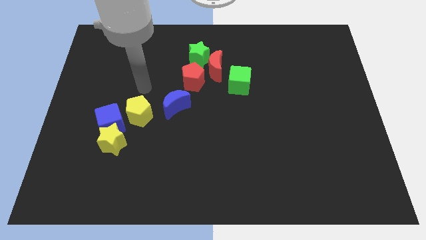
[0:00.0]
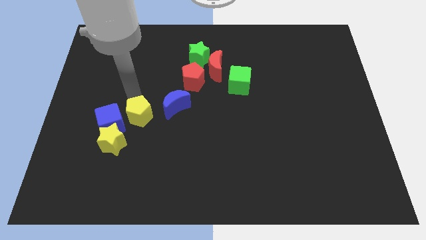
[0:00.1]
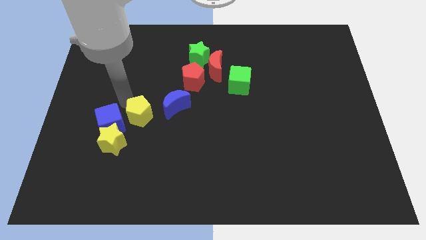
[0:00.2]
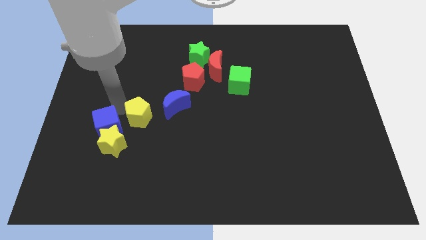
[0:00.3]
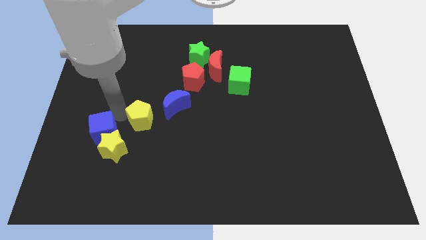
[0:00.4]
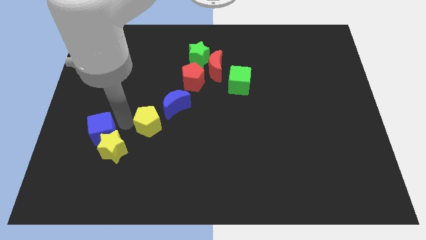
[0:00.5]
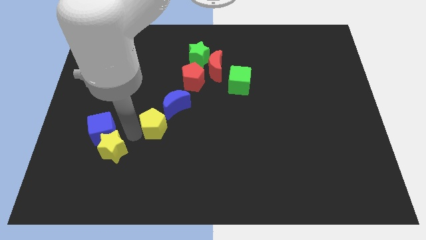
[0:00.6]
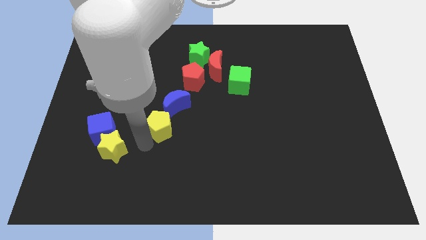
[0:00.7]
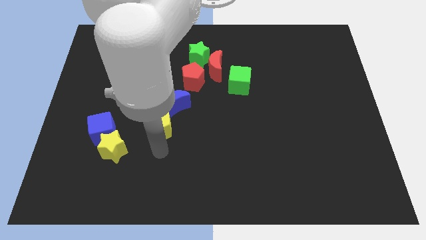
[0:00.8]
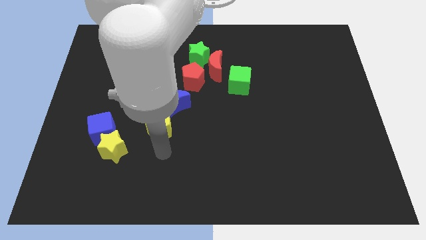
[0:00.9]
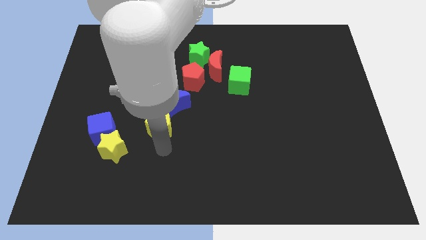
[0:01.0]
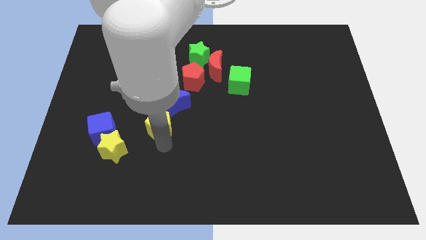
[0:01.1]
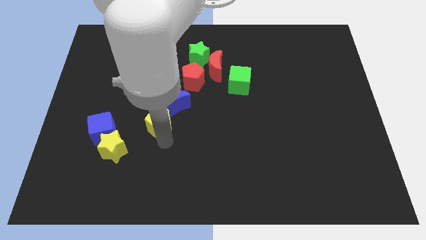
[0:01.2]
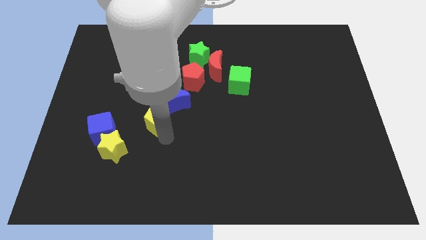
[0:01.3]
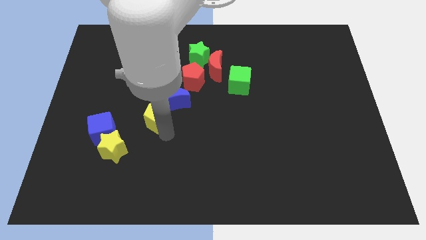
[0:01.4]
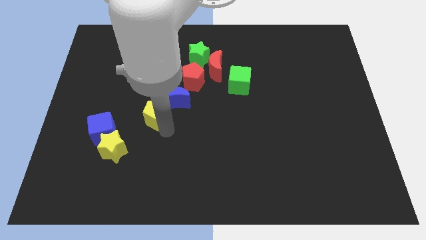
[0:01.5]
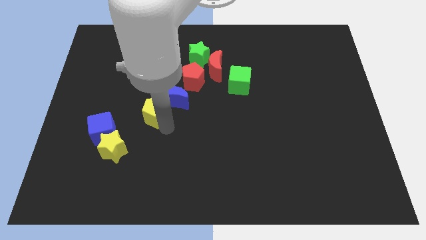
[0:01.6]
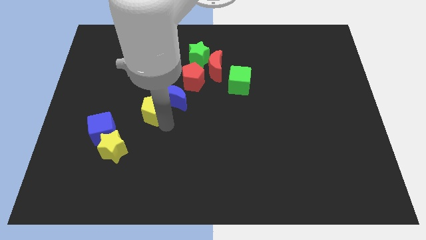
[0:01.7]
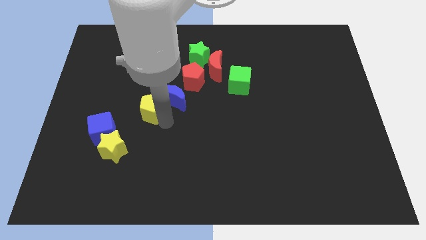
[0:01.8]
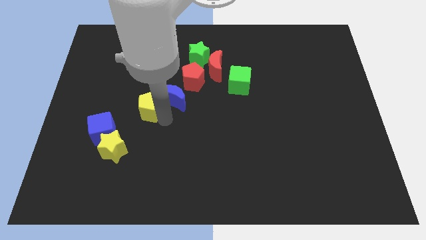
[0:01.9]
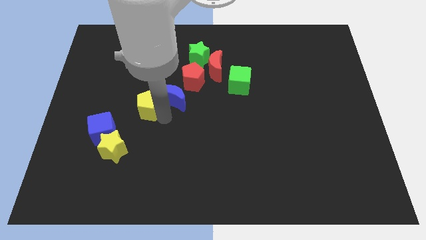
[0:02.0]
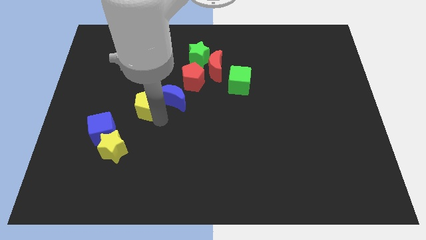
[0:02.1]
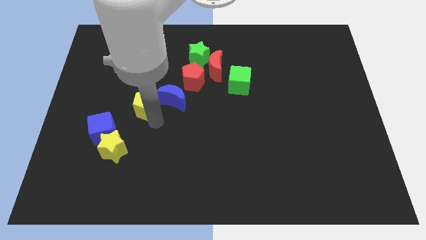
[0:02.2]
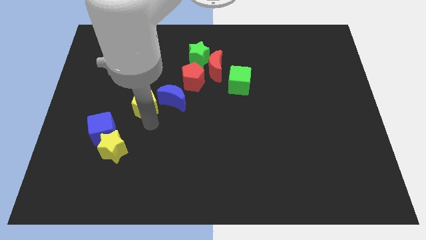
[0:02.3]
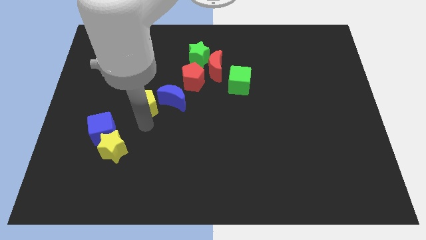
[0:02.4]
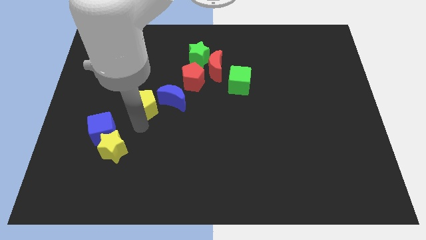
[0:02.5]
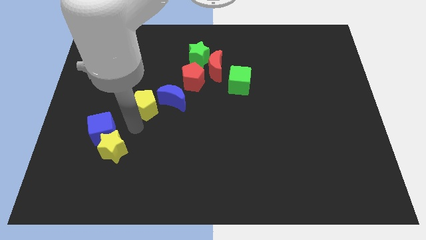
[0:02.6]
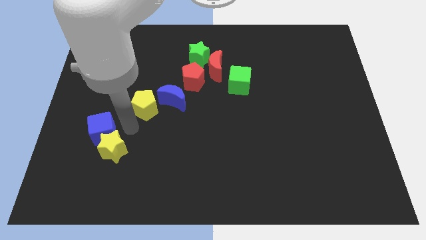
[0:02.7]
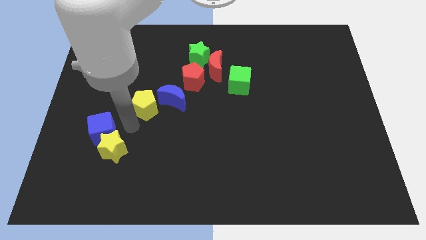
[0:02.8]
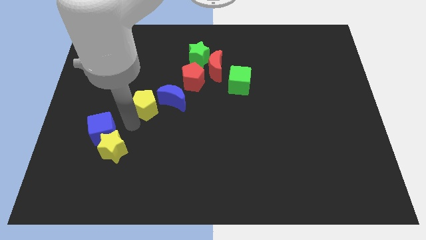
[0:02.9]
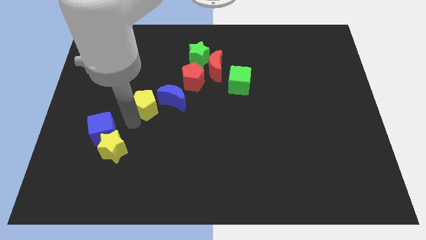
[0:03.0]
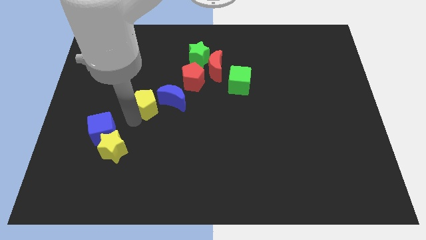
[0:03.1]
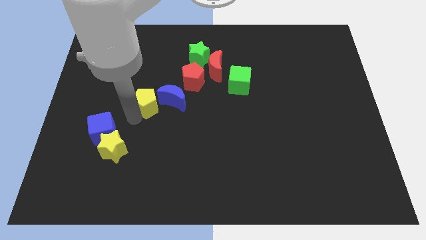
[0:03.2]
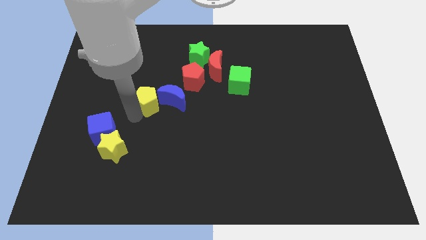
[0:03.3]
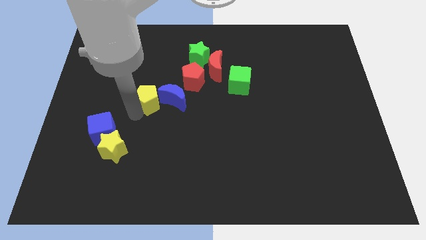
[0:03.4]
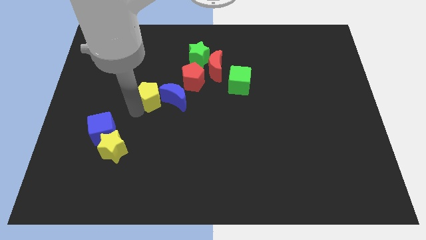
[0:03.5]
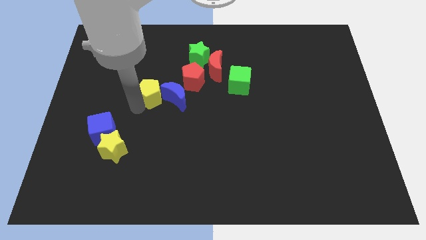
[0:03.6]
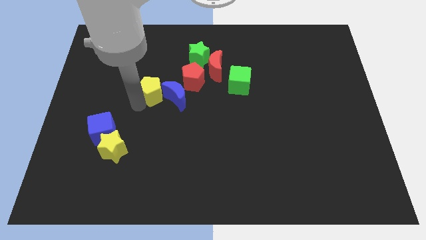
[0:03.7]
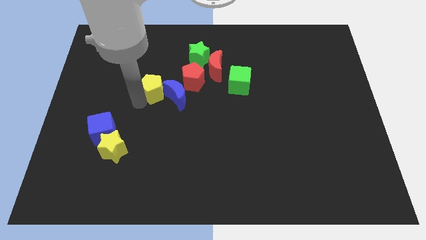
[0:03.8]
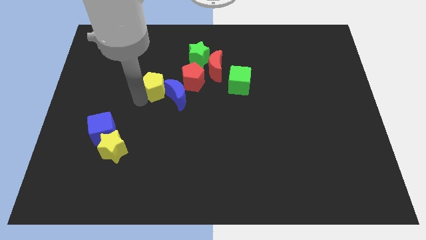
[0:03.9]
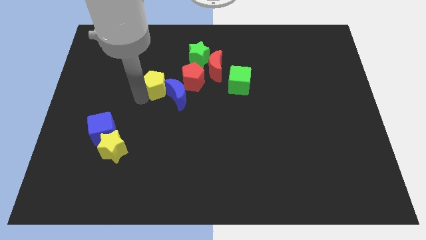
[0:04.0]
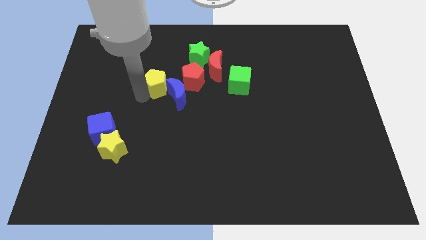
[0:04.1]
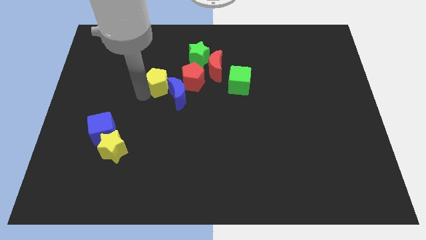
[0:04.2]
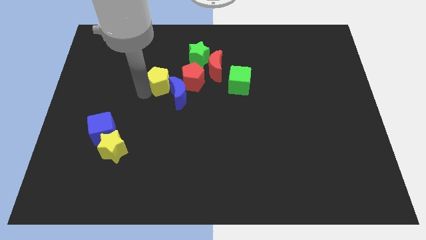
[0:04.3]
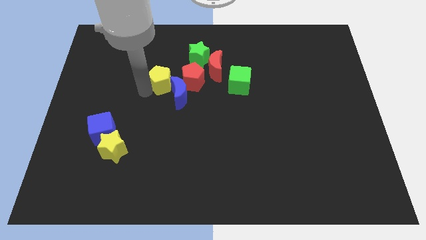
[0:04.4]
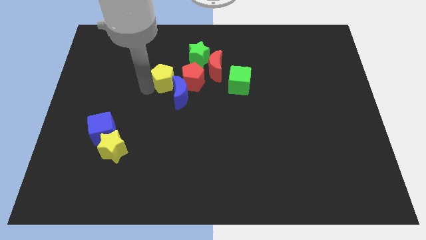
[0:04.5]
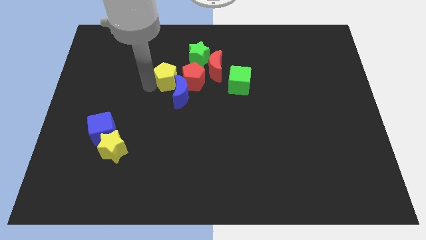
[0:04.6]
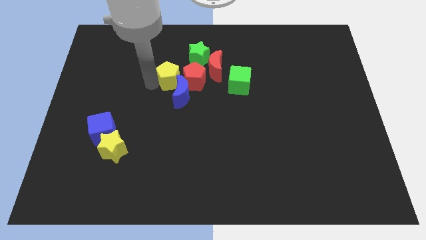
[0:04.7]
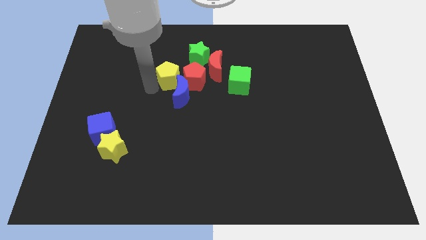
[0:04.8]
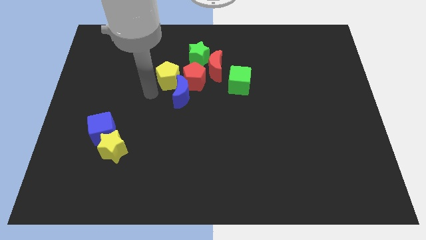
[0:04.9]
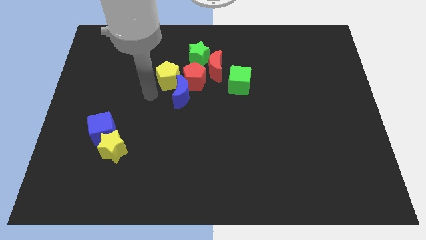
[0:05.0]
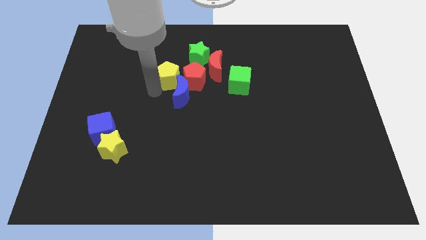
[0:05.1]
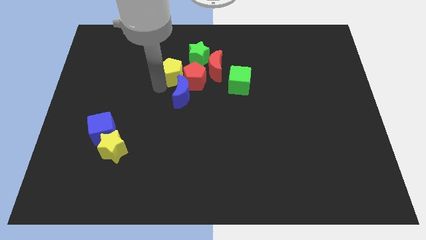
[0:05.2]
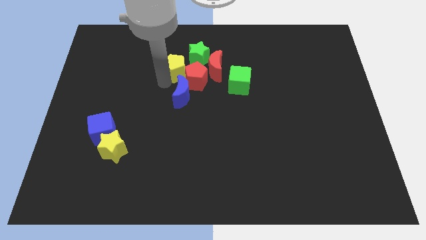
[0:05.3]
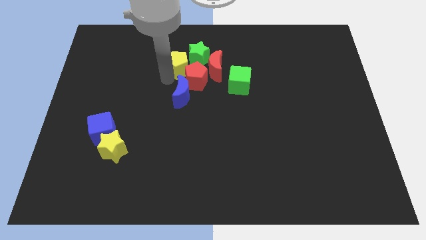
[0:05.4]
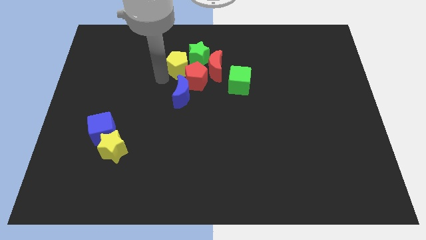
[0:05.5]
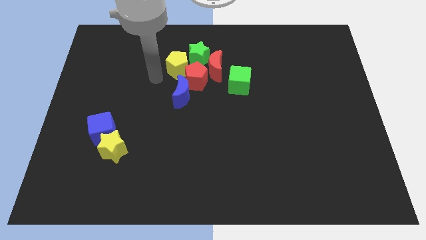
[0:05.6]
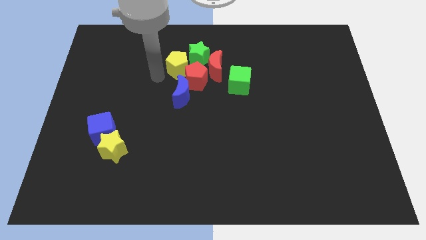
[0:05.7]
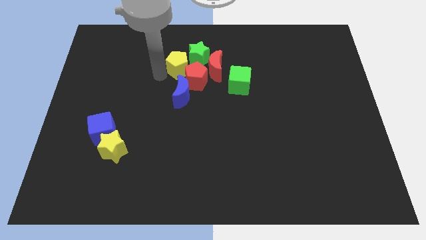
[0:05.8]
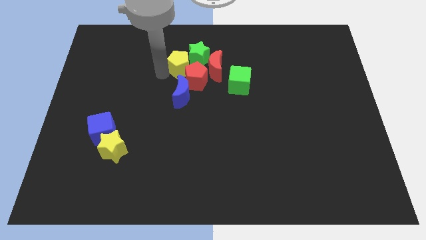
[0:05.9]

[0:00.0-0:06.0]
slide the yellow pentagon towards the green star

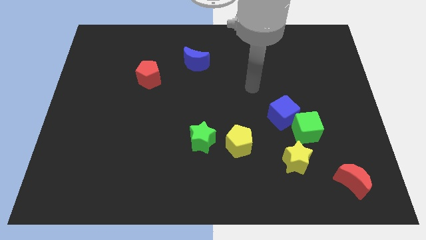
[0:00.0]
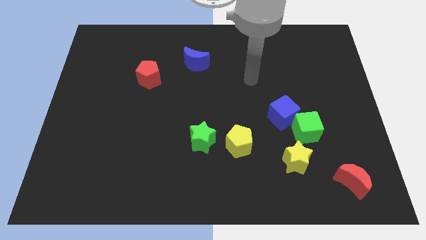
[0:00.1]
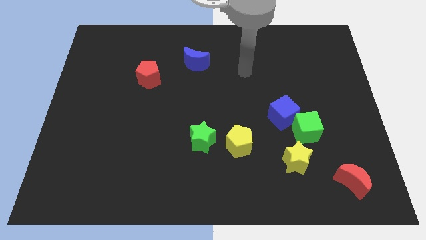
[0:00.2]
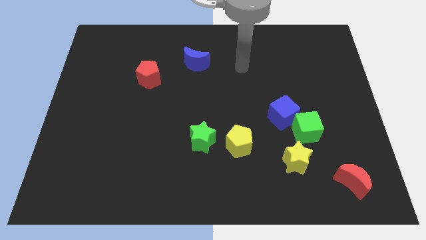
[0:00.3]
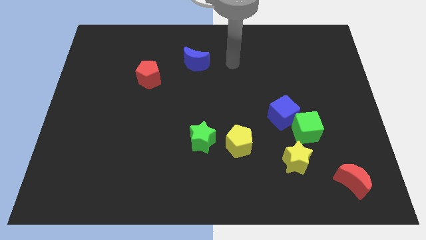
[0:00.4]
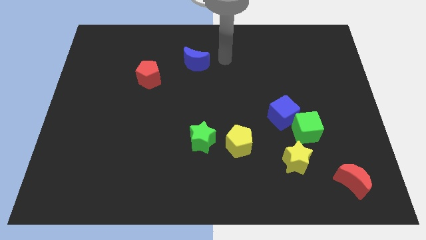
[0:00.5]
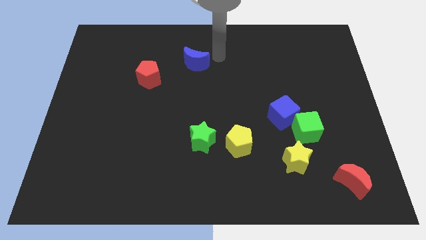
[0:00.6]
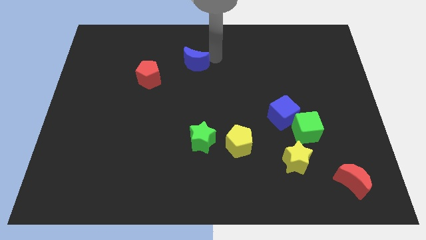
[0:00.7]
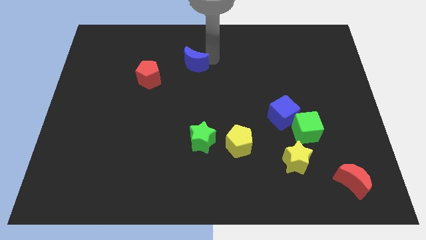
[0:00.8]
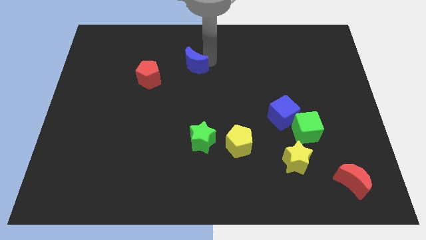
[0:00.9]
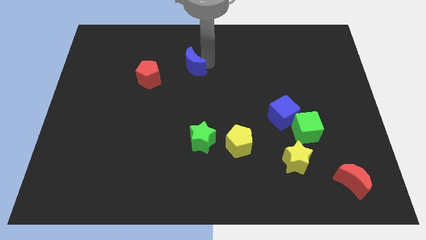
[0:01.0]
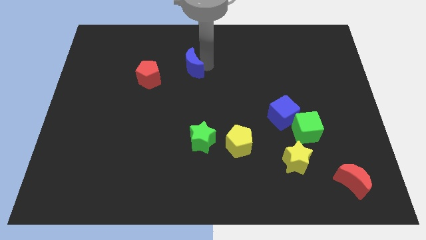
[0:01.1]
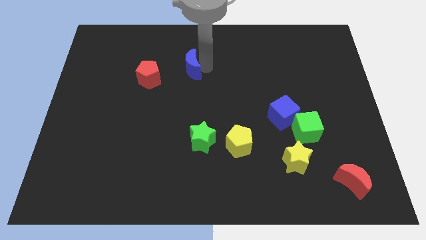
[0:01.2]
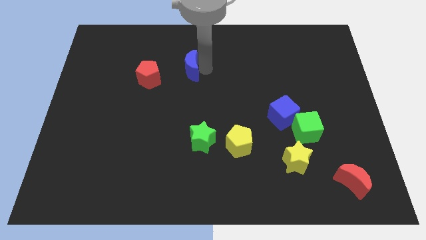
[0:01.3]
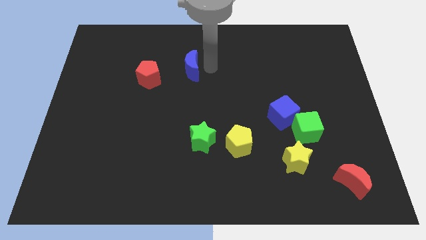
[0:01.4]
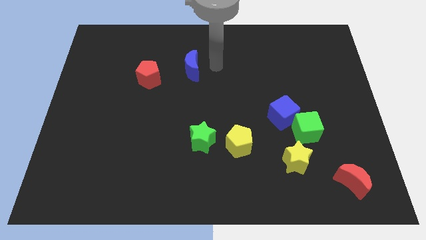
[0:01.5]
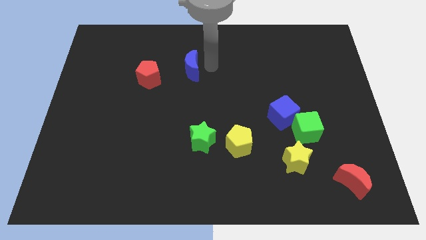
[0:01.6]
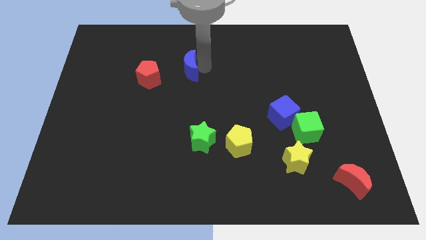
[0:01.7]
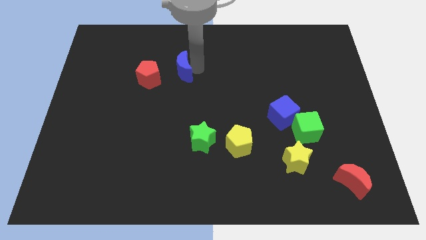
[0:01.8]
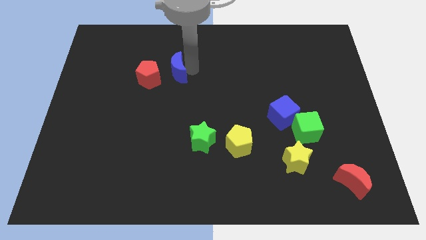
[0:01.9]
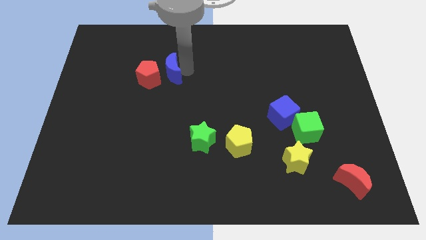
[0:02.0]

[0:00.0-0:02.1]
slide the blue moon towards the red pentagon
